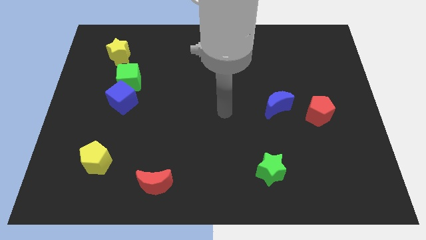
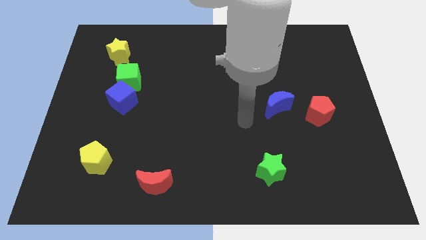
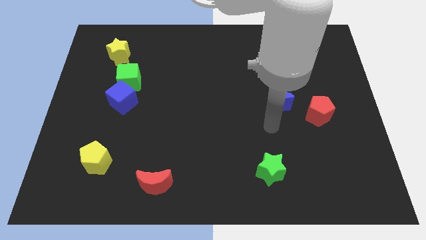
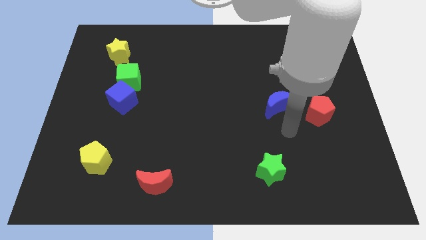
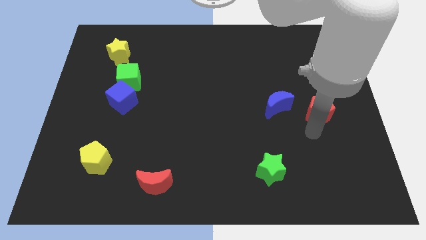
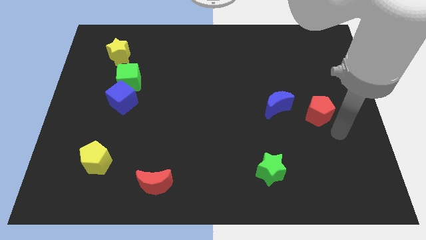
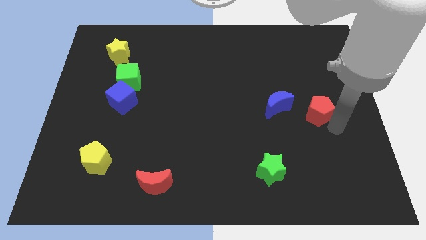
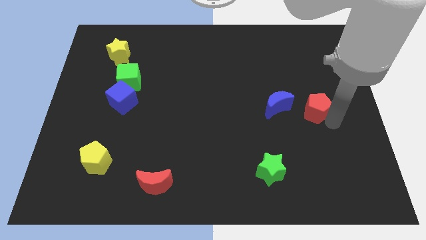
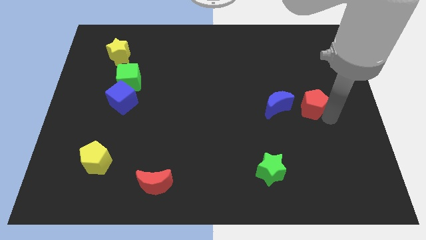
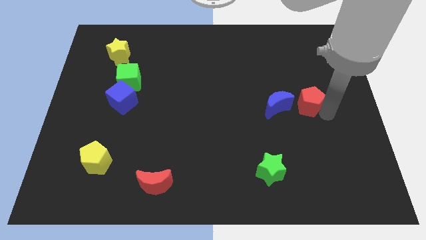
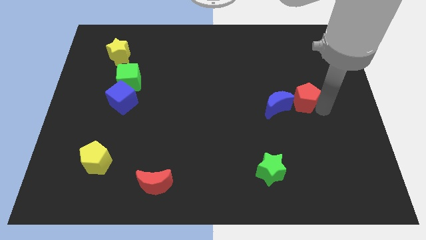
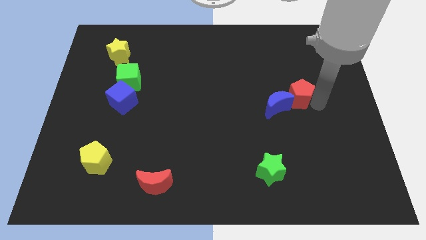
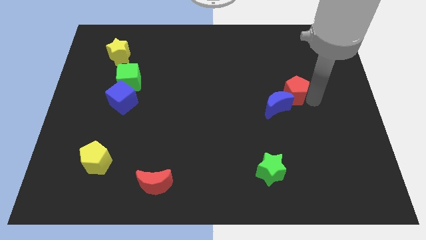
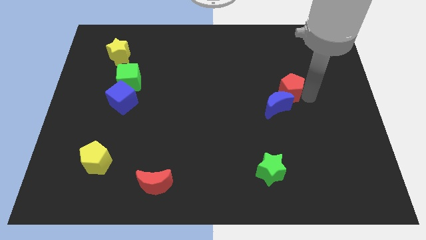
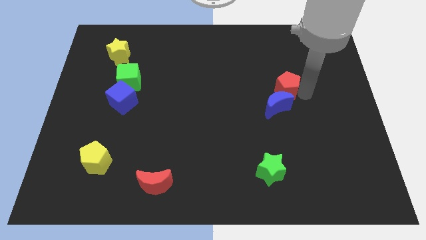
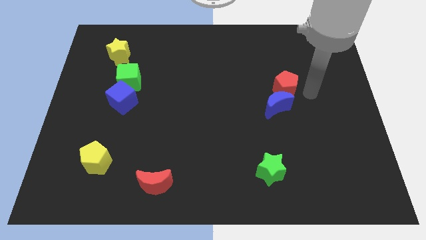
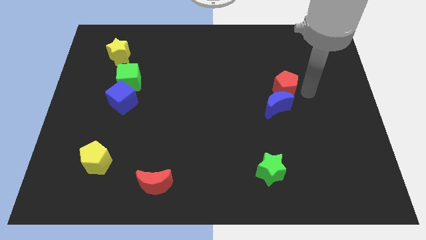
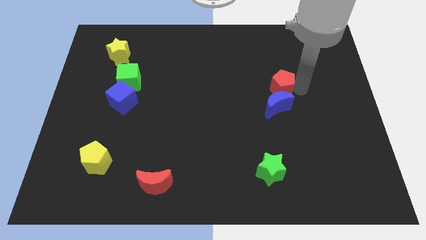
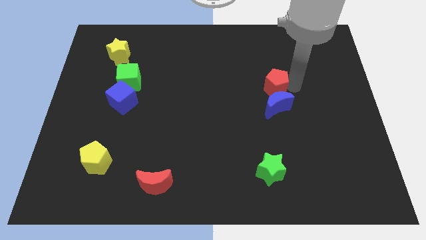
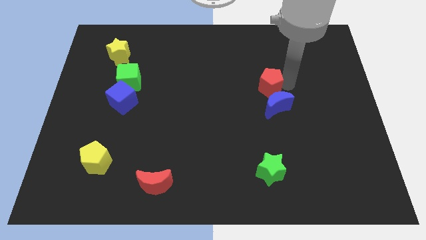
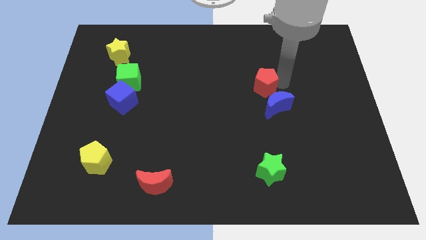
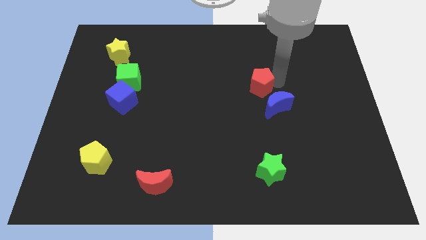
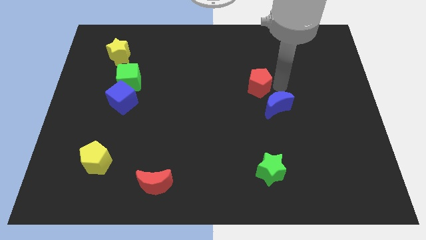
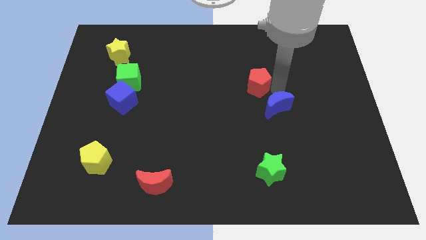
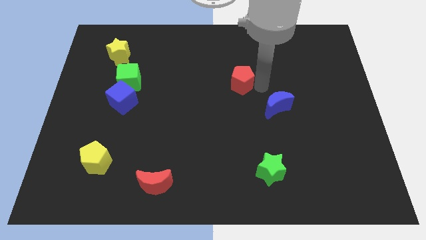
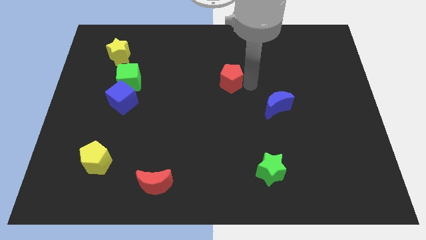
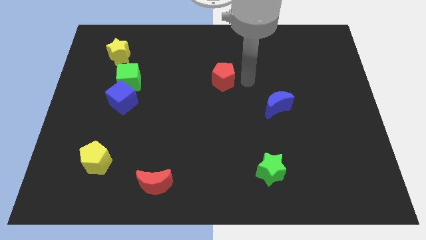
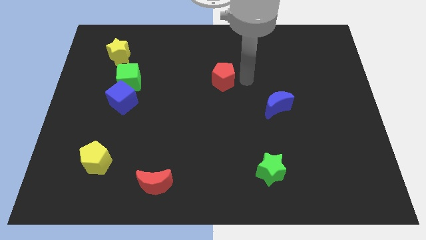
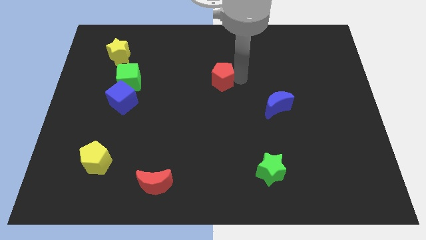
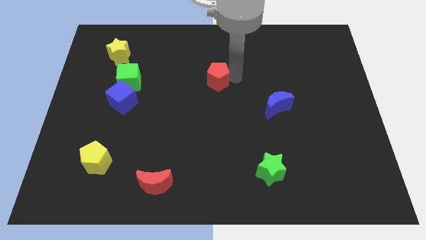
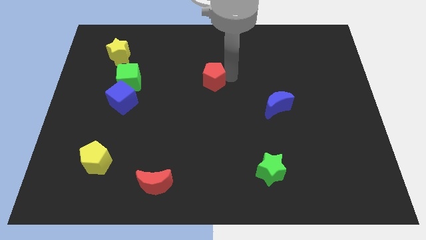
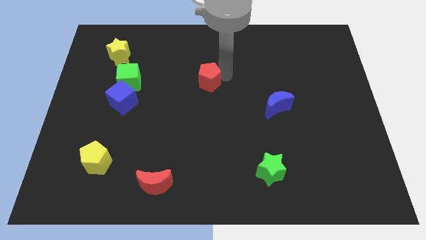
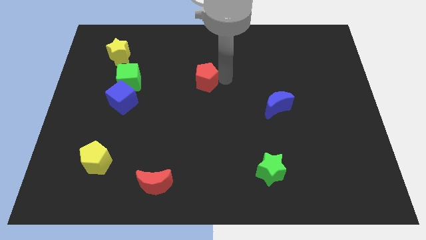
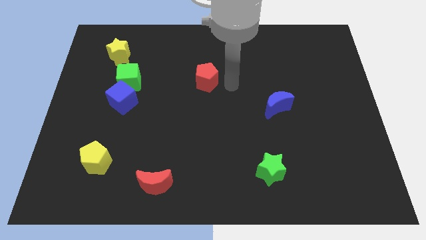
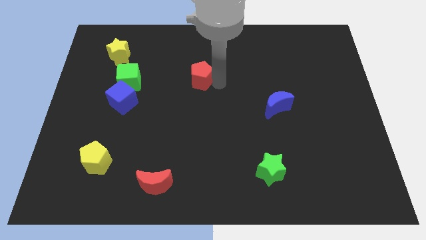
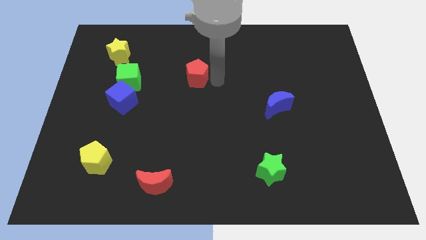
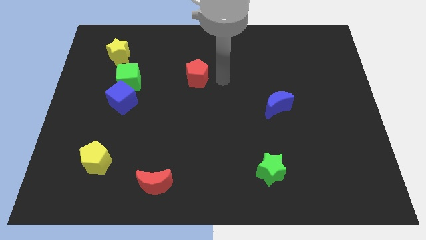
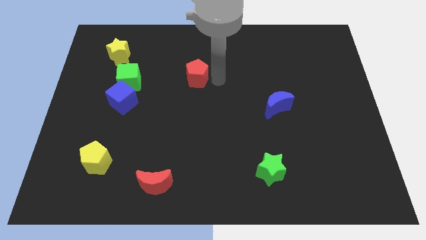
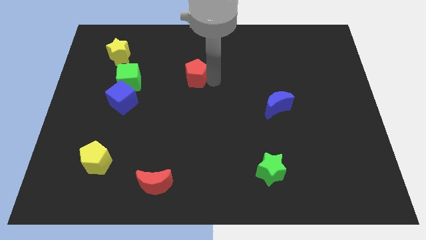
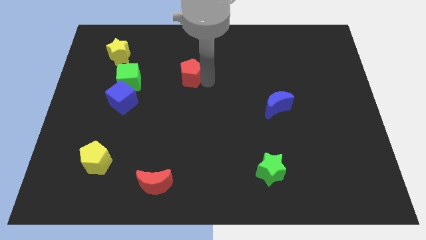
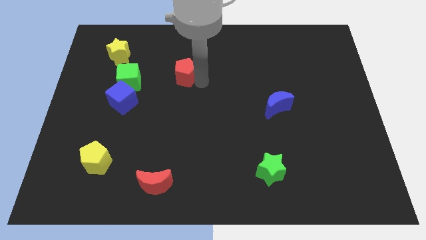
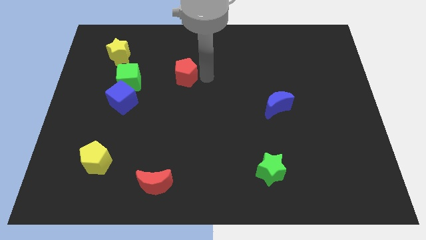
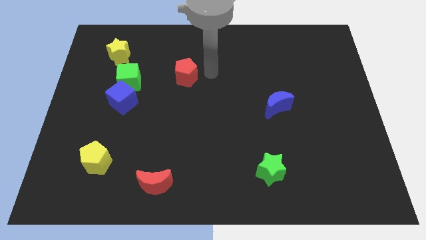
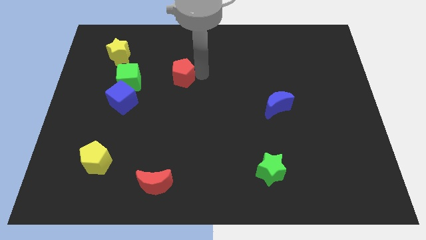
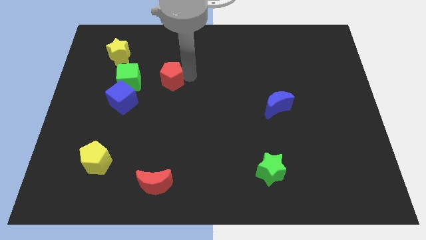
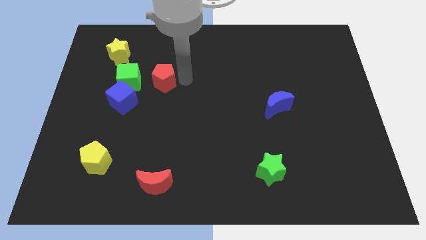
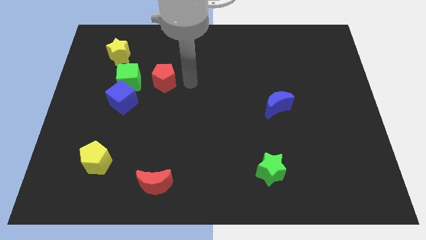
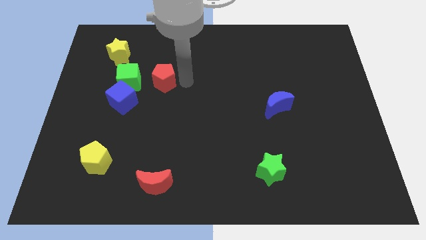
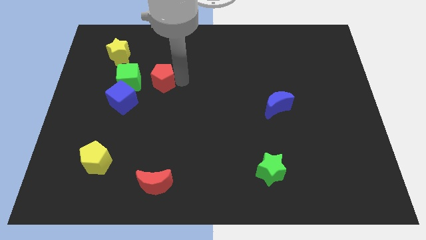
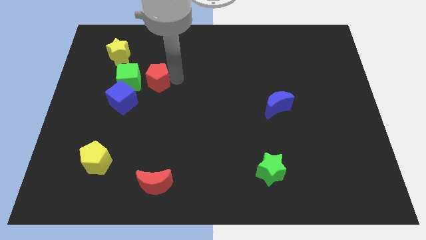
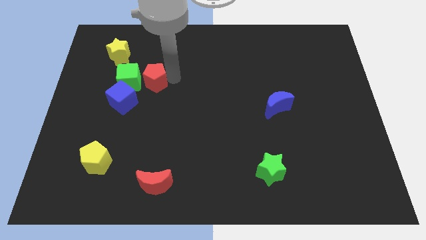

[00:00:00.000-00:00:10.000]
slide the red pentagon to the green cube

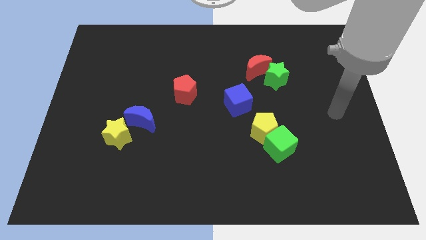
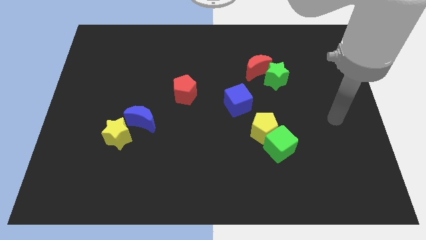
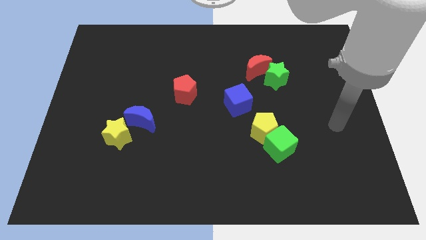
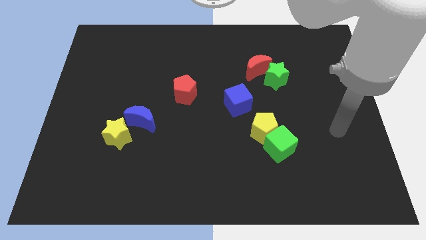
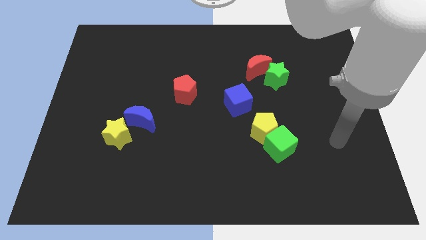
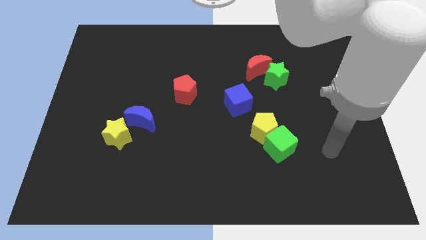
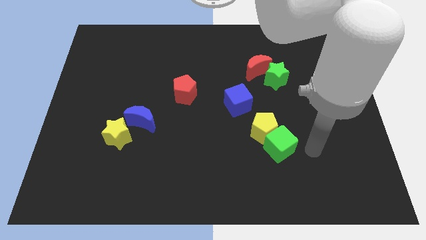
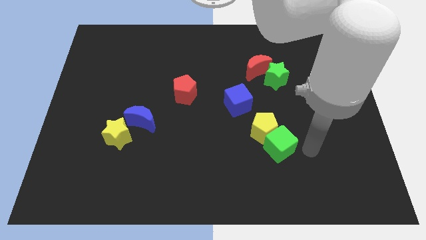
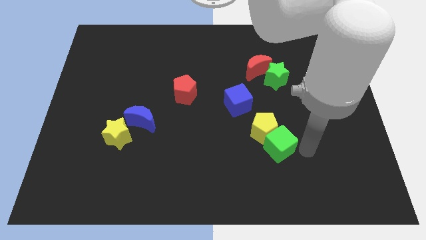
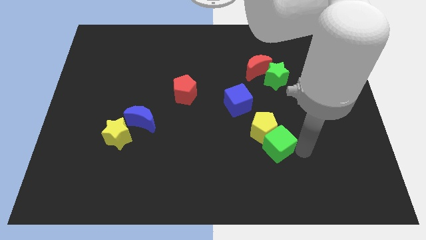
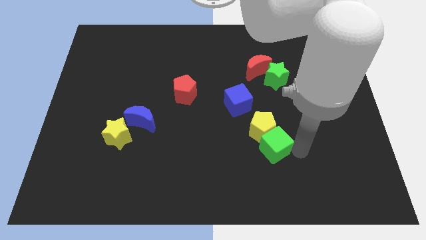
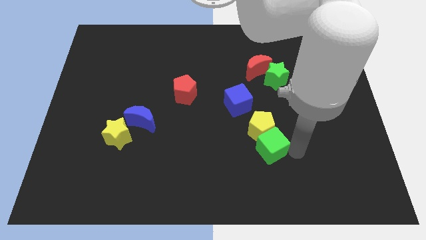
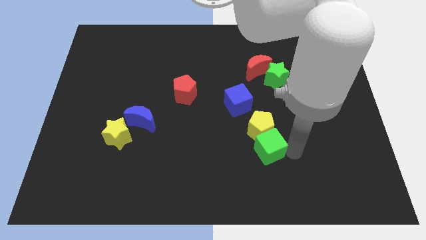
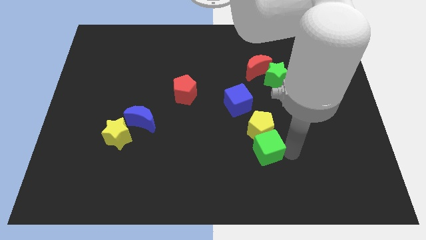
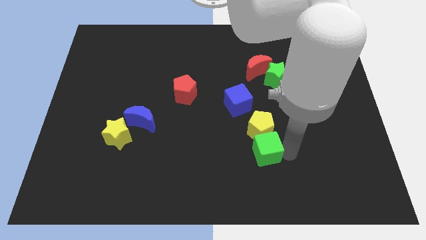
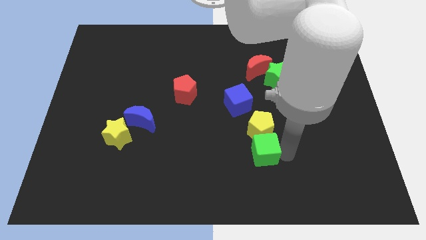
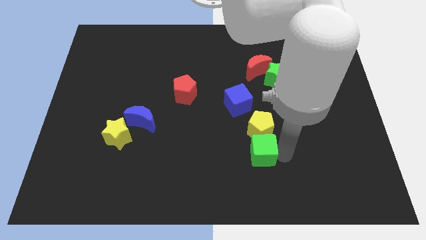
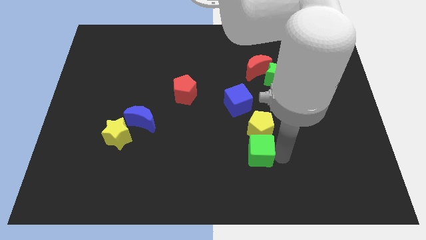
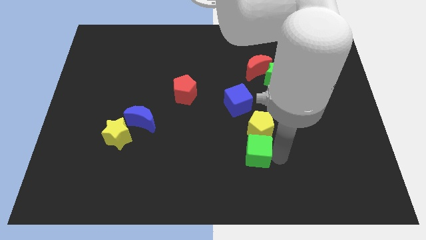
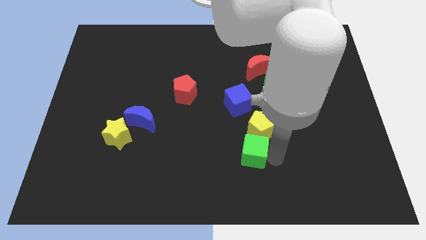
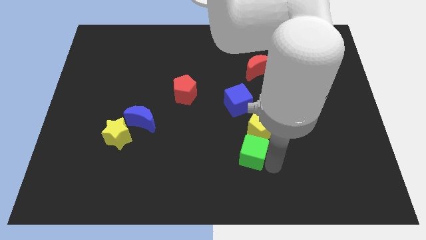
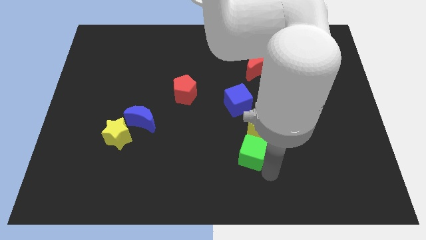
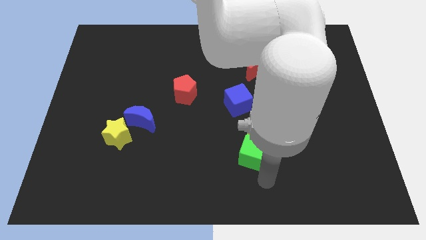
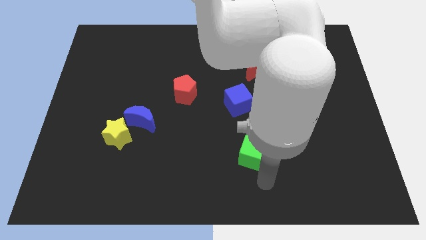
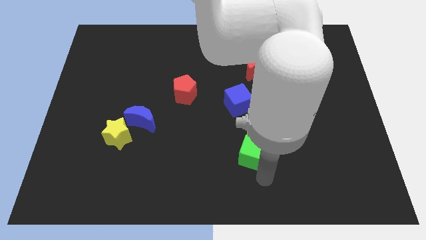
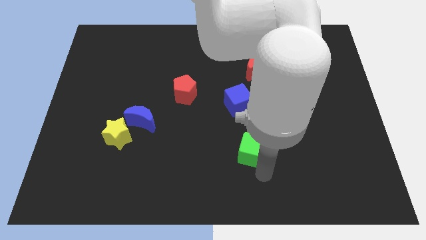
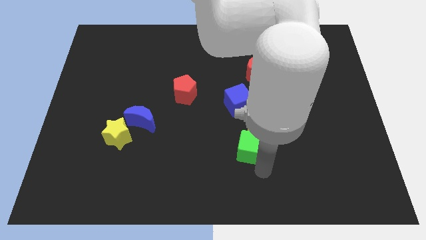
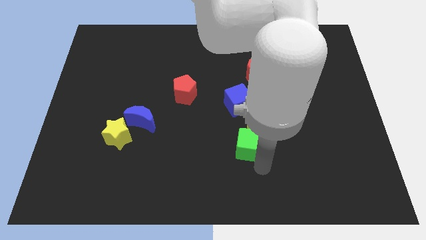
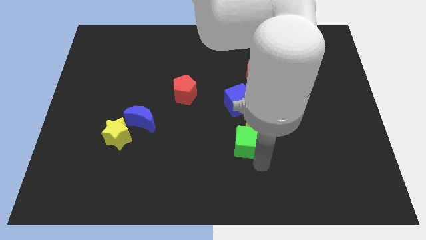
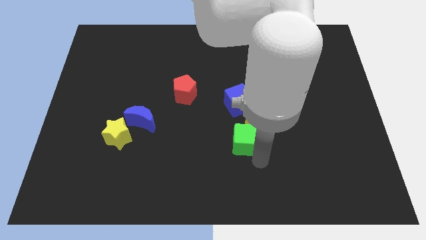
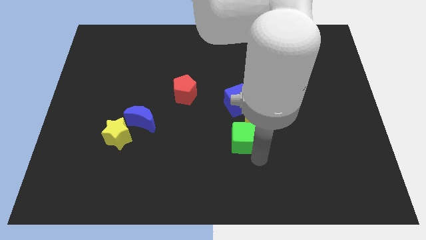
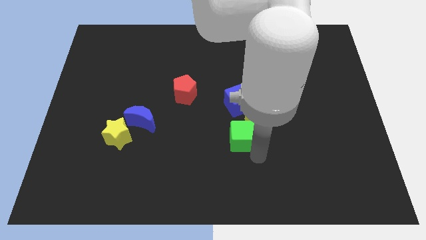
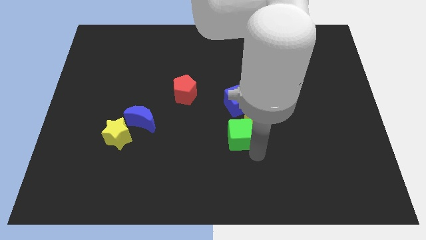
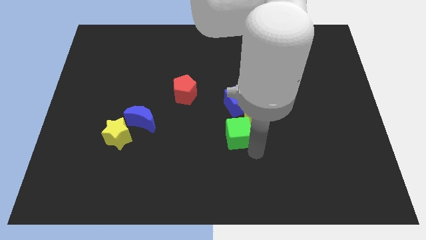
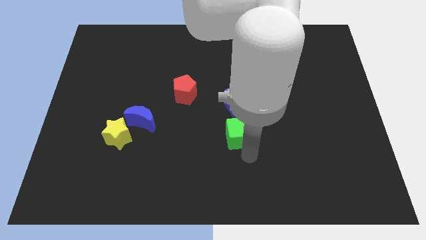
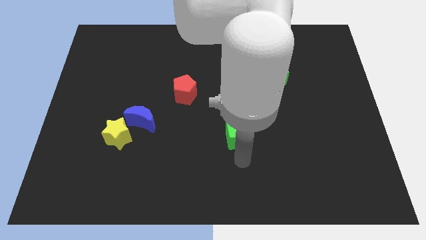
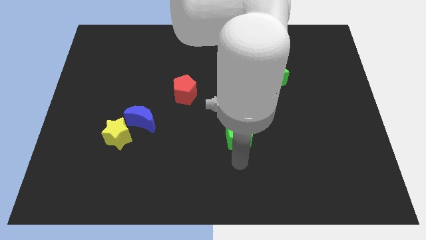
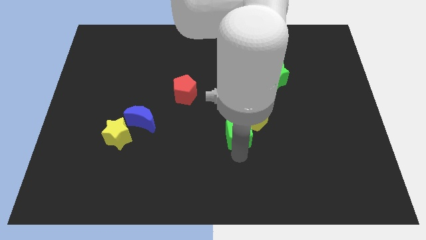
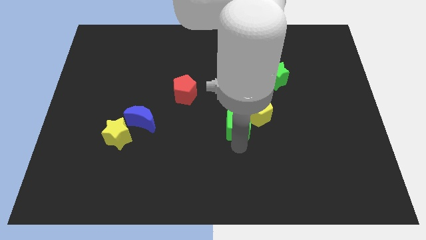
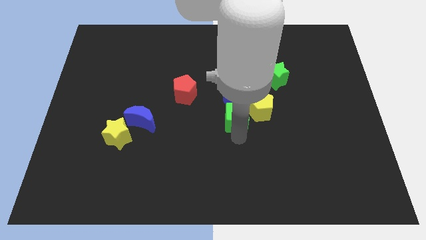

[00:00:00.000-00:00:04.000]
slide the green cube to the blue cube
